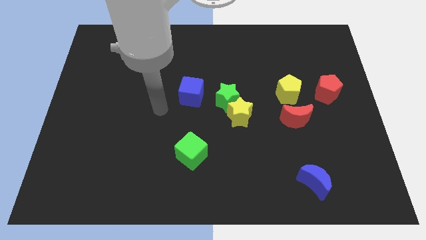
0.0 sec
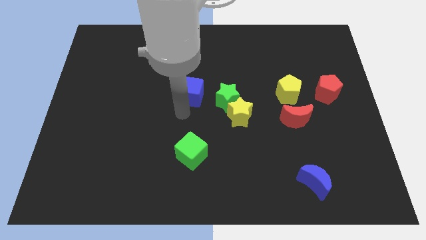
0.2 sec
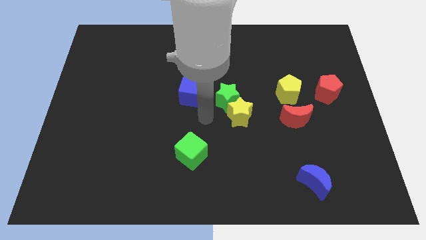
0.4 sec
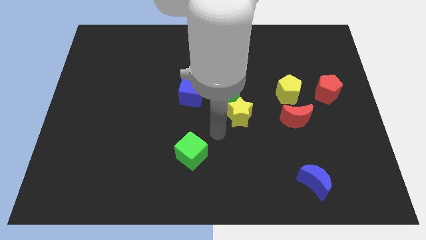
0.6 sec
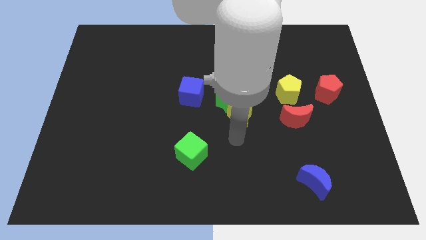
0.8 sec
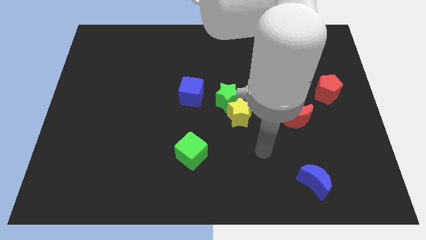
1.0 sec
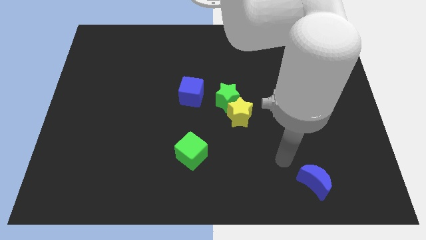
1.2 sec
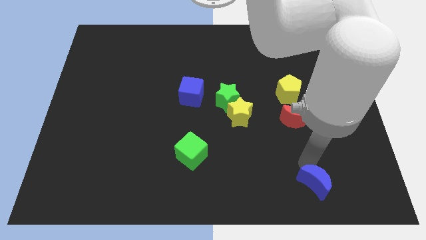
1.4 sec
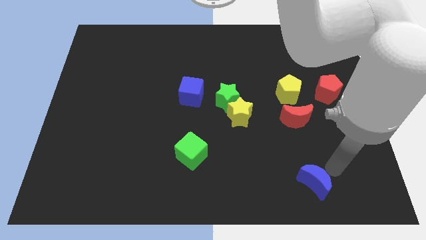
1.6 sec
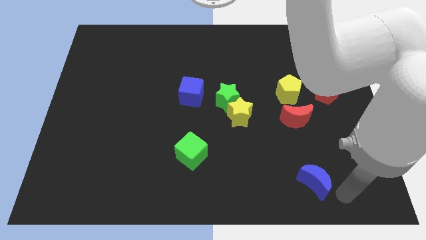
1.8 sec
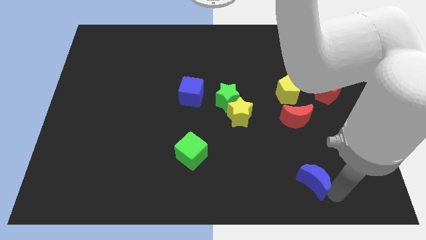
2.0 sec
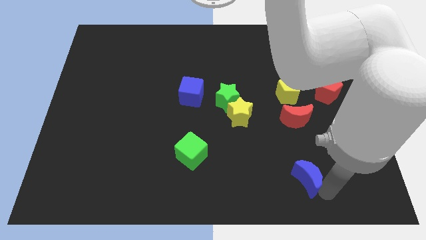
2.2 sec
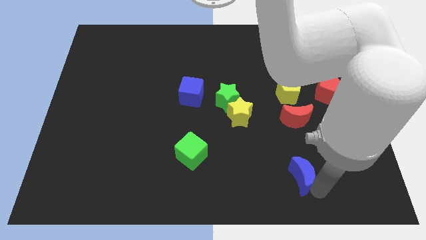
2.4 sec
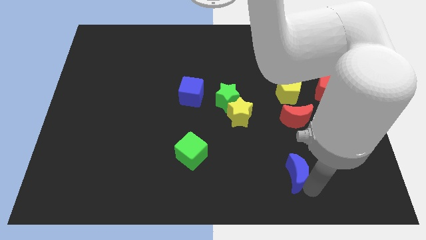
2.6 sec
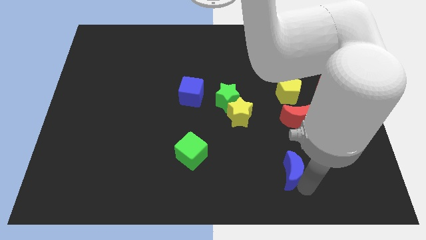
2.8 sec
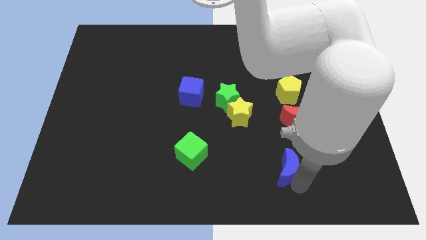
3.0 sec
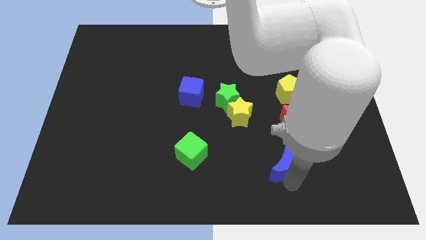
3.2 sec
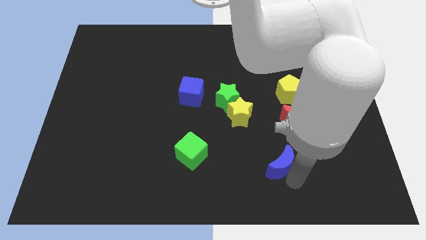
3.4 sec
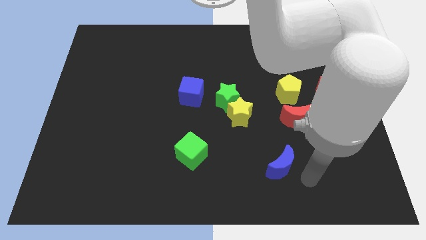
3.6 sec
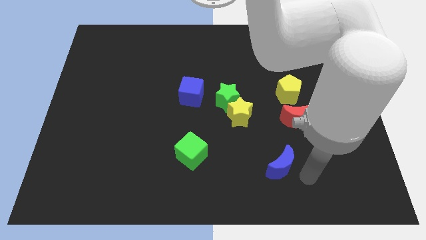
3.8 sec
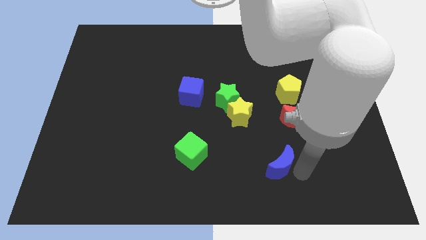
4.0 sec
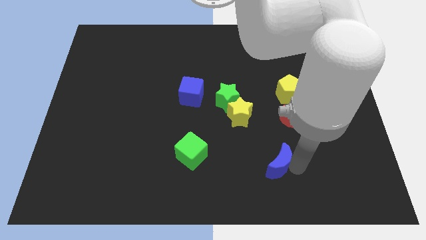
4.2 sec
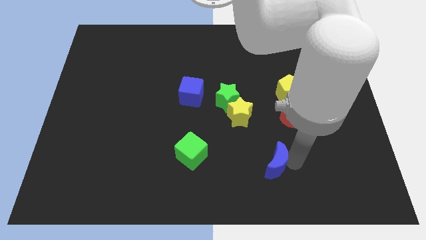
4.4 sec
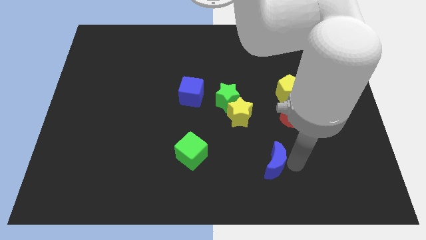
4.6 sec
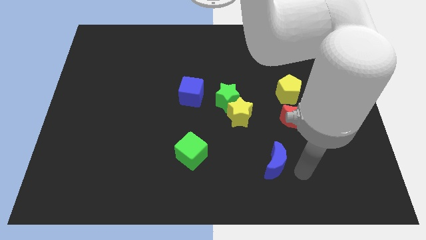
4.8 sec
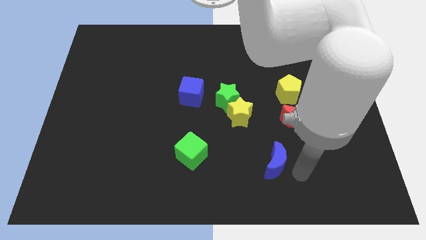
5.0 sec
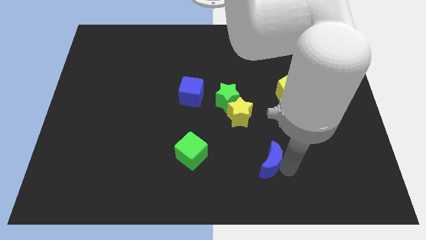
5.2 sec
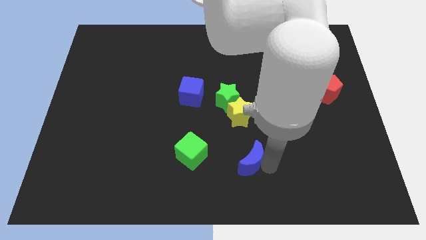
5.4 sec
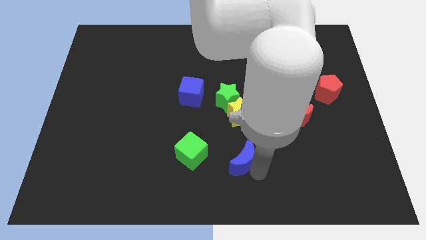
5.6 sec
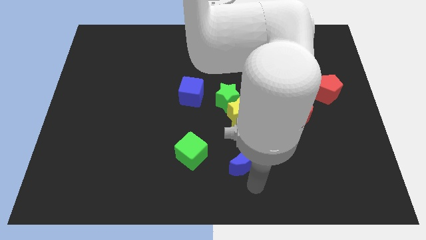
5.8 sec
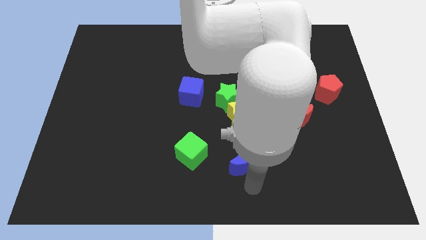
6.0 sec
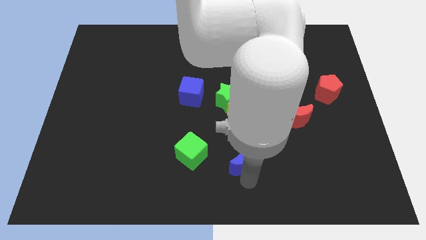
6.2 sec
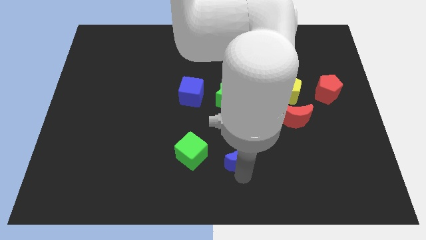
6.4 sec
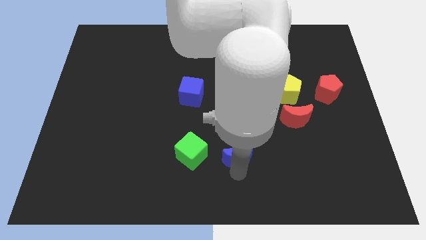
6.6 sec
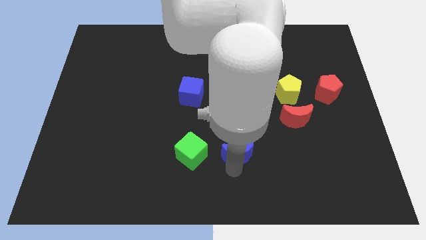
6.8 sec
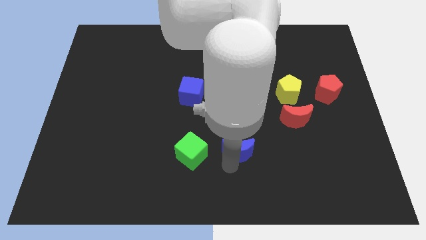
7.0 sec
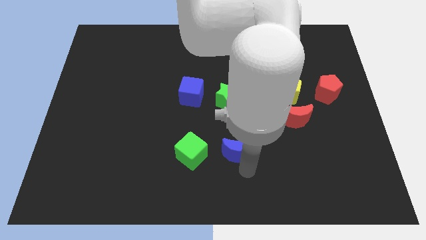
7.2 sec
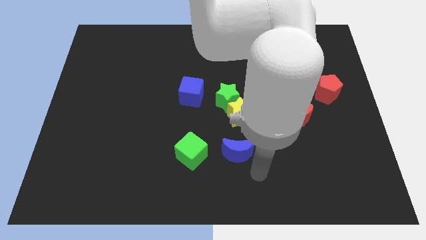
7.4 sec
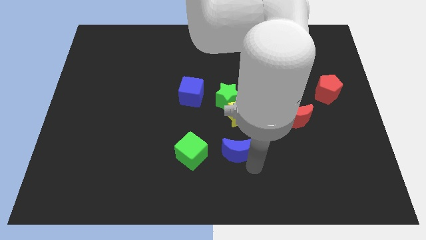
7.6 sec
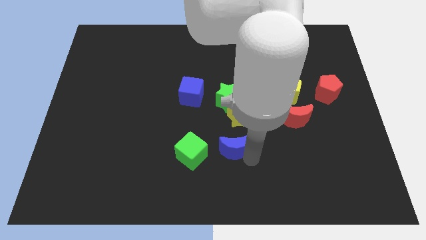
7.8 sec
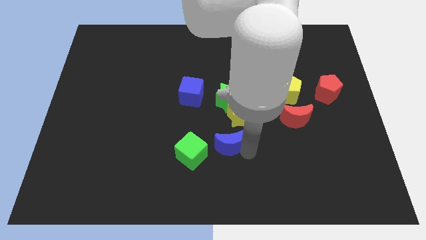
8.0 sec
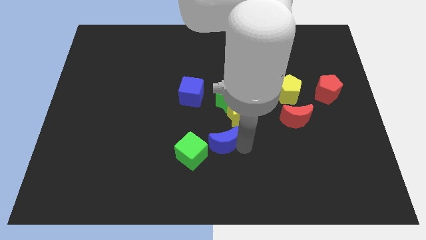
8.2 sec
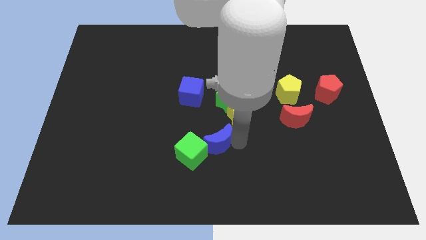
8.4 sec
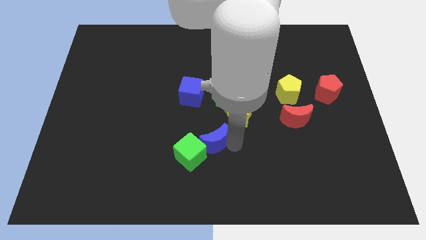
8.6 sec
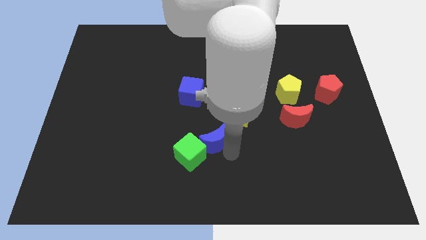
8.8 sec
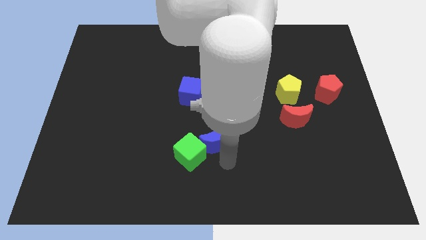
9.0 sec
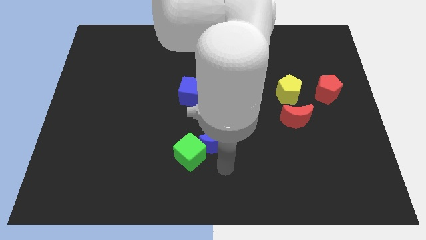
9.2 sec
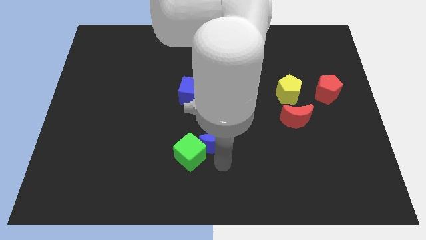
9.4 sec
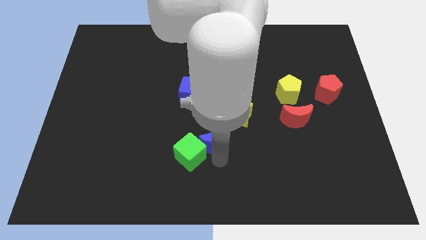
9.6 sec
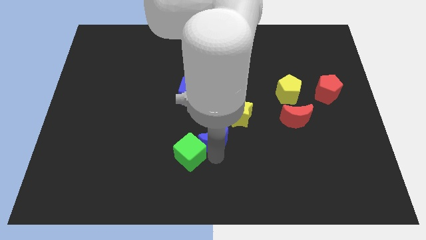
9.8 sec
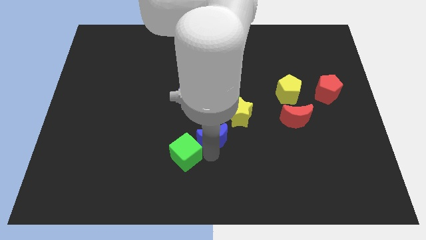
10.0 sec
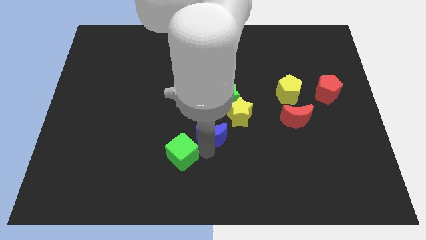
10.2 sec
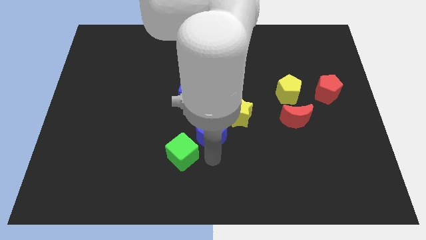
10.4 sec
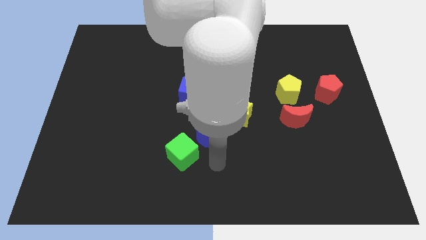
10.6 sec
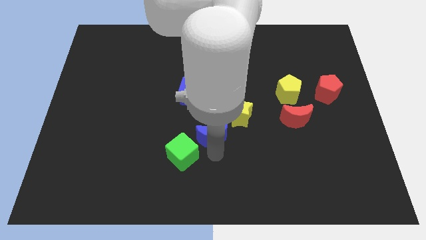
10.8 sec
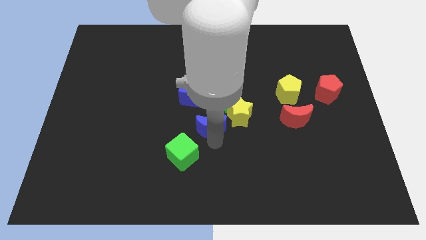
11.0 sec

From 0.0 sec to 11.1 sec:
put the blue moon to the left side of the yellow star
